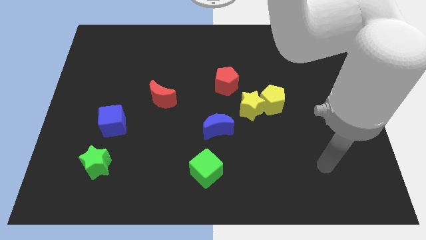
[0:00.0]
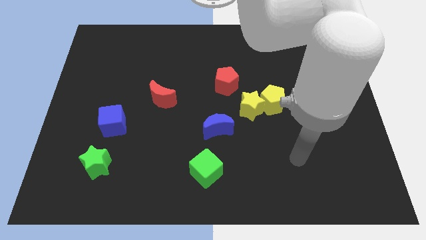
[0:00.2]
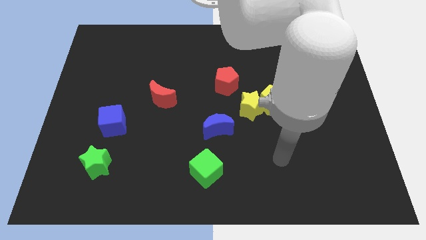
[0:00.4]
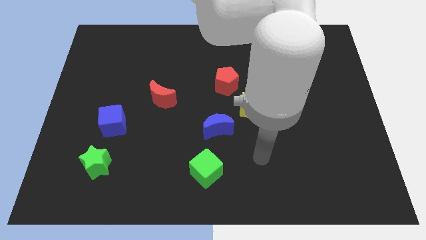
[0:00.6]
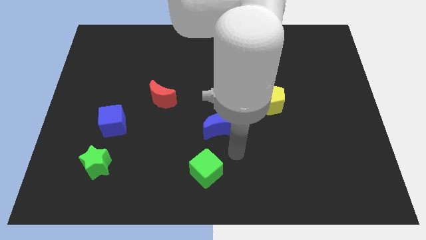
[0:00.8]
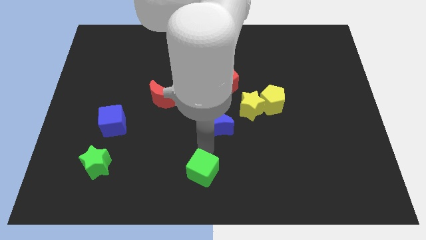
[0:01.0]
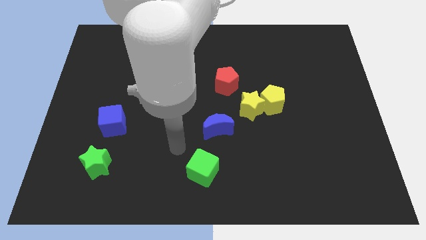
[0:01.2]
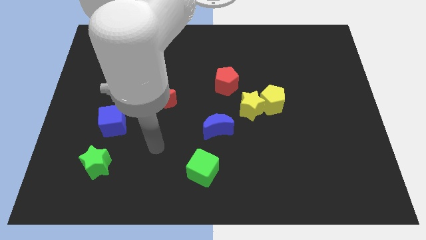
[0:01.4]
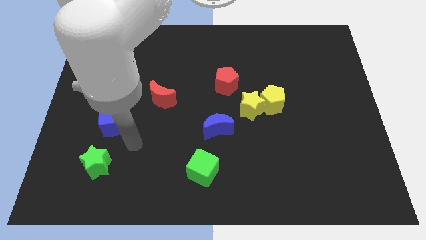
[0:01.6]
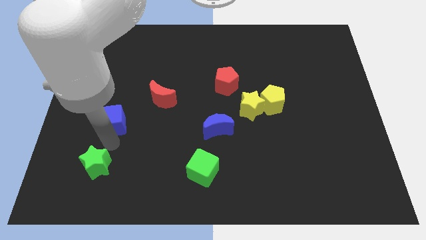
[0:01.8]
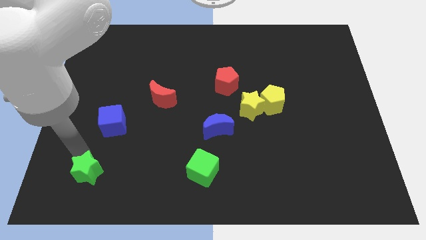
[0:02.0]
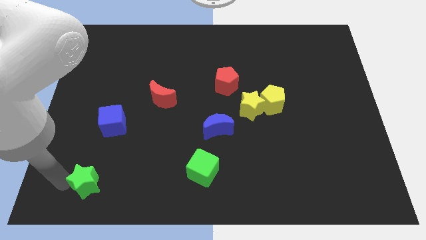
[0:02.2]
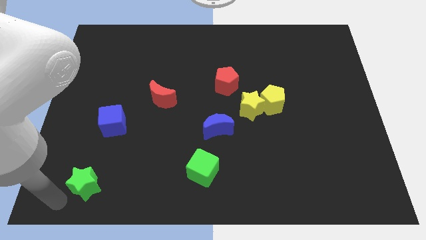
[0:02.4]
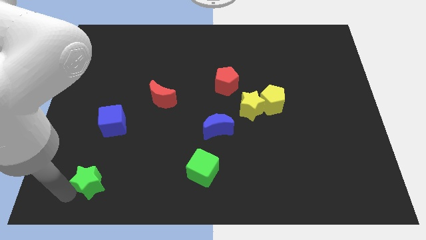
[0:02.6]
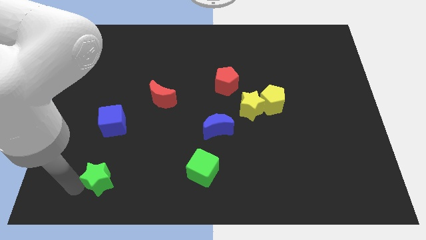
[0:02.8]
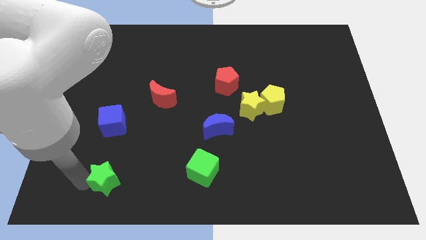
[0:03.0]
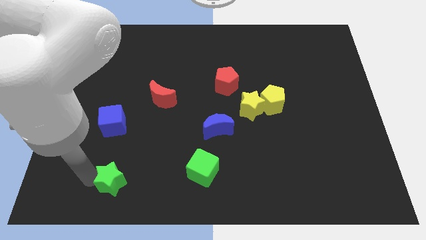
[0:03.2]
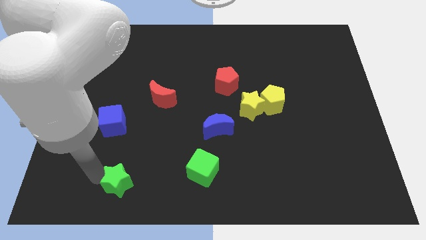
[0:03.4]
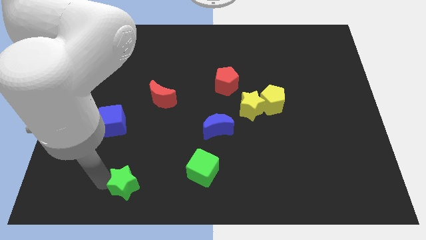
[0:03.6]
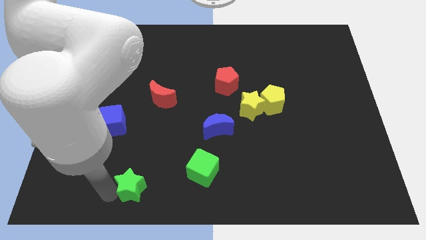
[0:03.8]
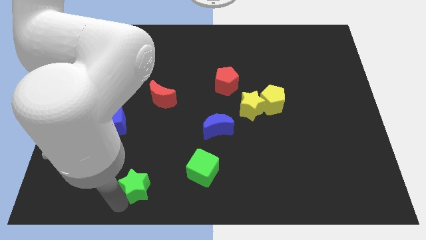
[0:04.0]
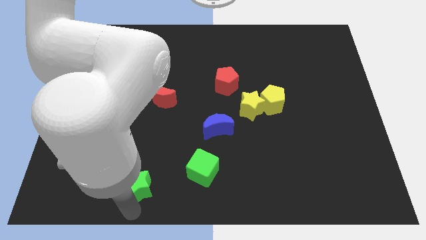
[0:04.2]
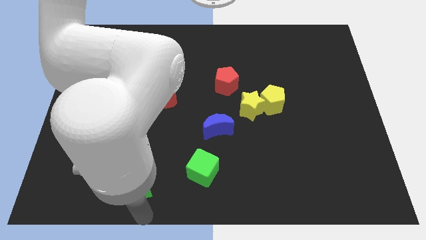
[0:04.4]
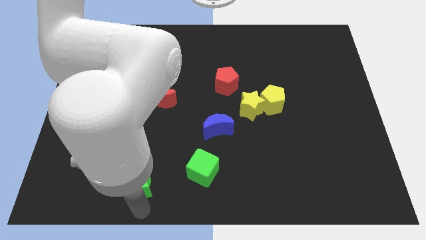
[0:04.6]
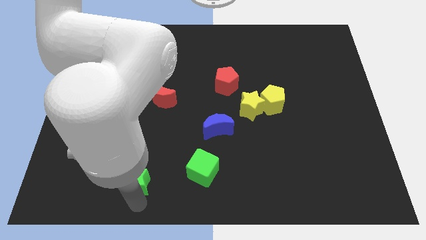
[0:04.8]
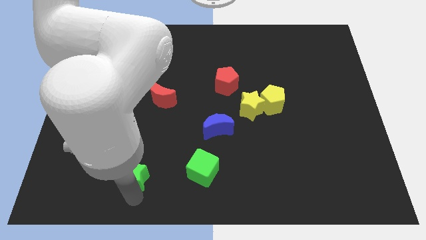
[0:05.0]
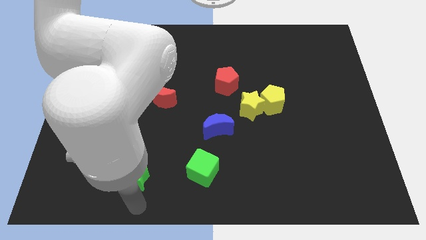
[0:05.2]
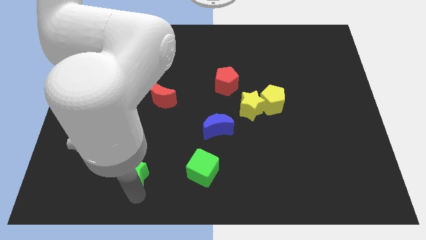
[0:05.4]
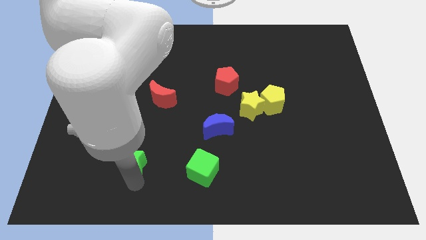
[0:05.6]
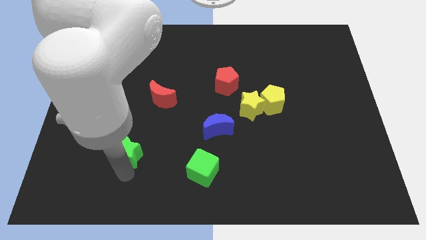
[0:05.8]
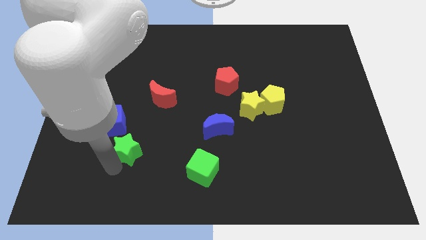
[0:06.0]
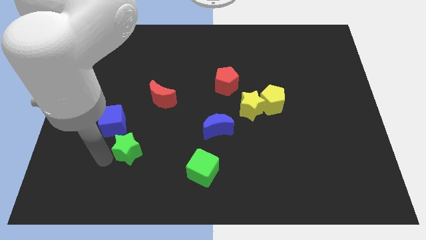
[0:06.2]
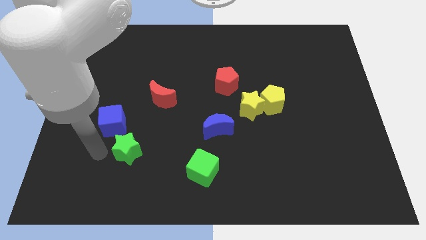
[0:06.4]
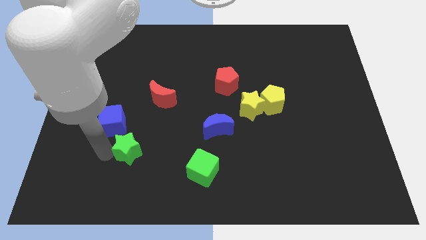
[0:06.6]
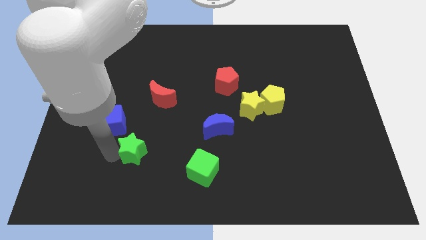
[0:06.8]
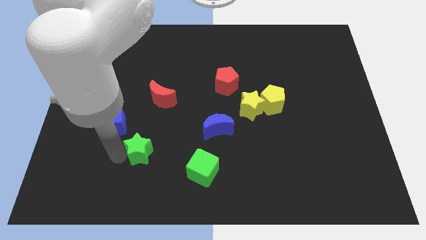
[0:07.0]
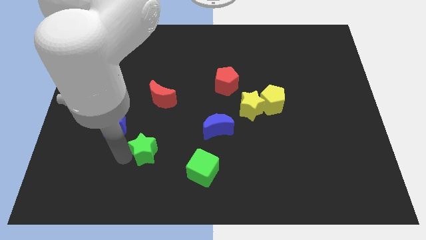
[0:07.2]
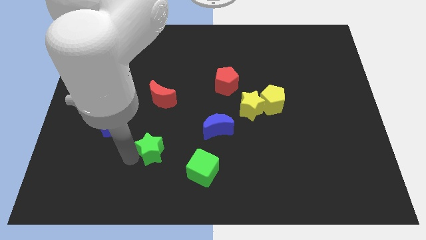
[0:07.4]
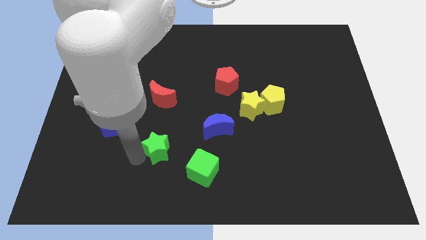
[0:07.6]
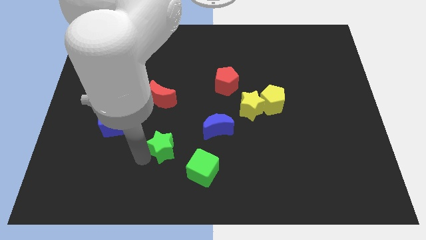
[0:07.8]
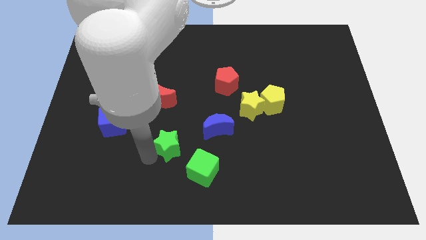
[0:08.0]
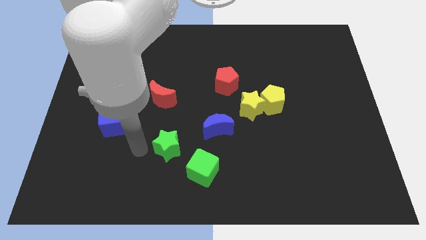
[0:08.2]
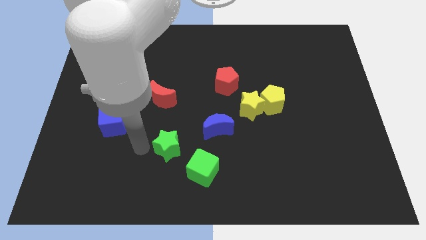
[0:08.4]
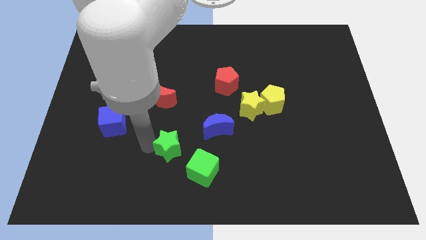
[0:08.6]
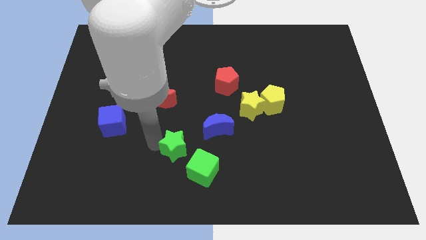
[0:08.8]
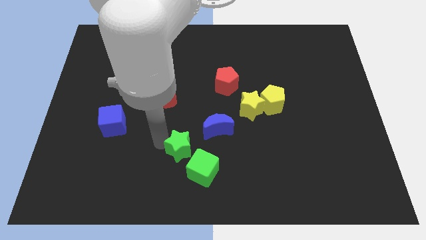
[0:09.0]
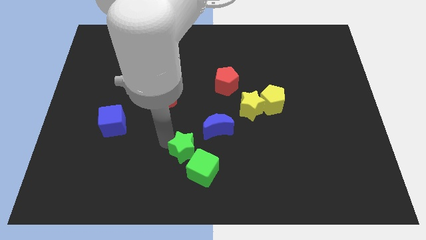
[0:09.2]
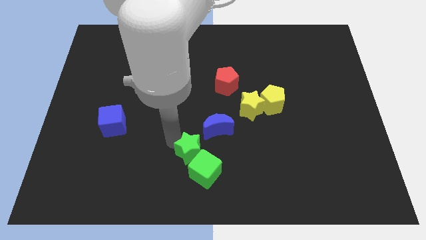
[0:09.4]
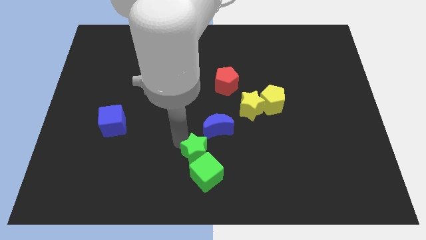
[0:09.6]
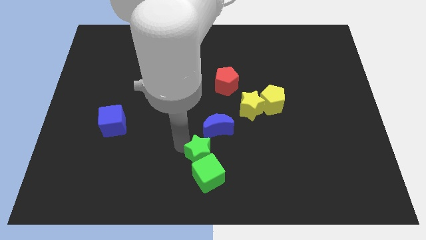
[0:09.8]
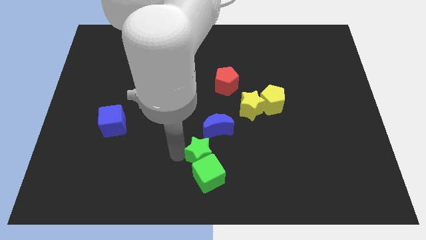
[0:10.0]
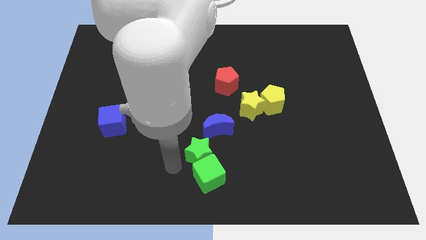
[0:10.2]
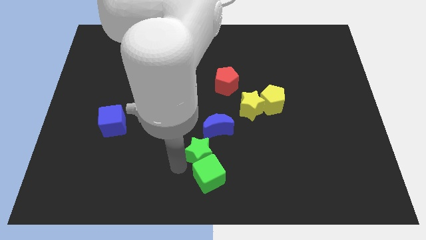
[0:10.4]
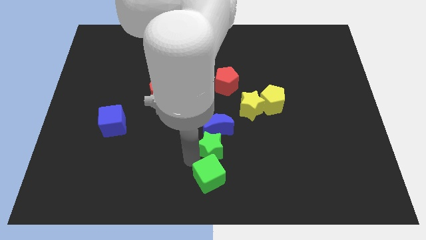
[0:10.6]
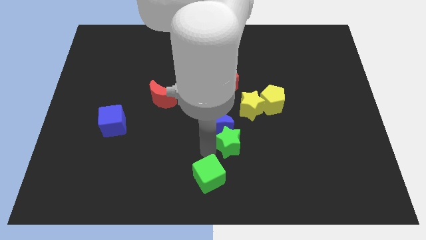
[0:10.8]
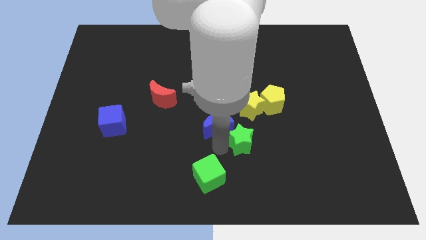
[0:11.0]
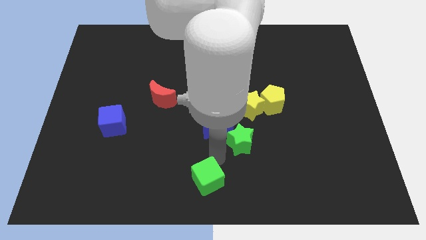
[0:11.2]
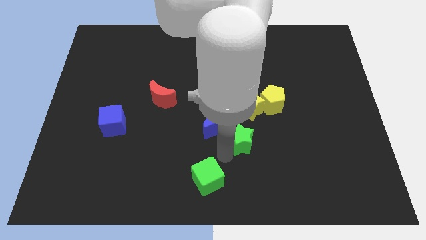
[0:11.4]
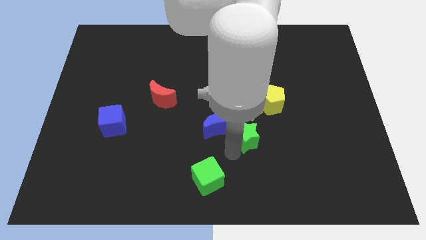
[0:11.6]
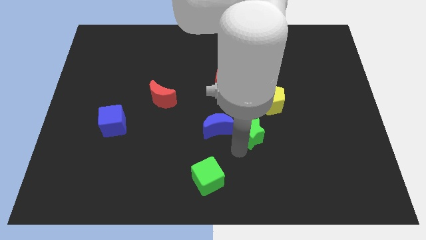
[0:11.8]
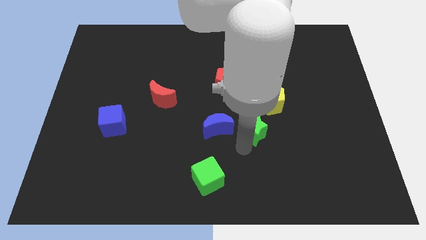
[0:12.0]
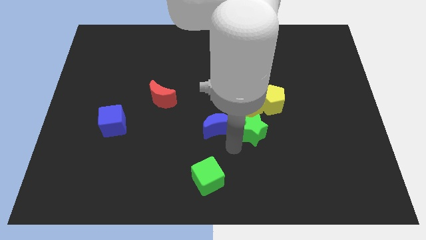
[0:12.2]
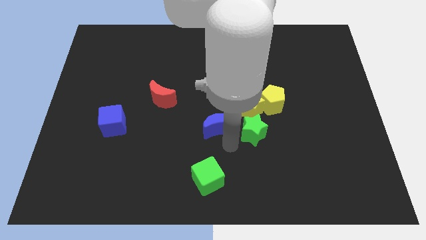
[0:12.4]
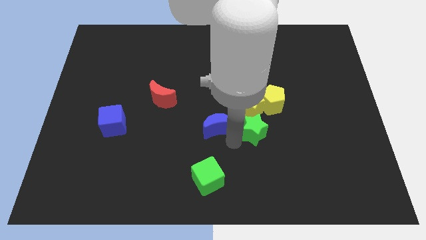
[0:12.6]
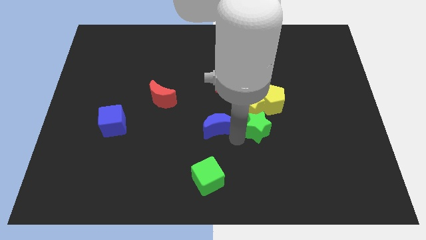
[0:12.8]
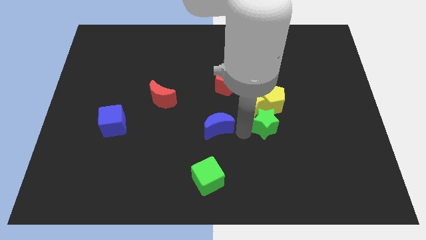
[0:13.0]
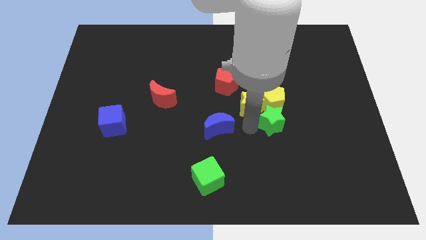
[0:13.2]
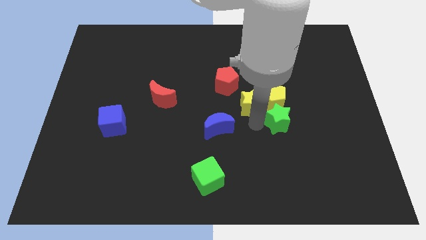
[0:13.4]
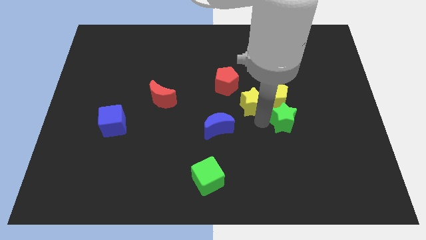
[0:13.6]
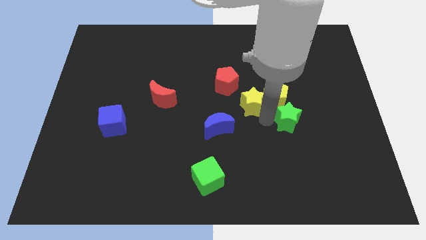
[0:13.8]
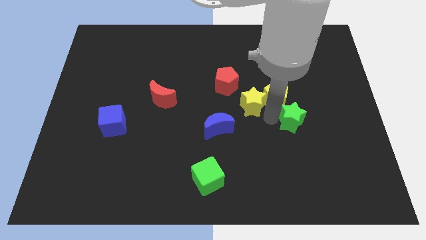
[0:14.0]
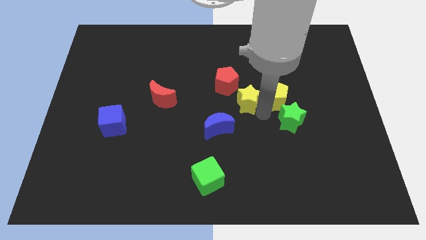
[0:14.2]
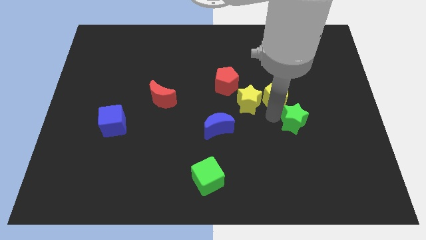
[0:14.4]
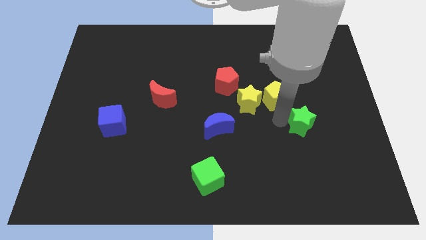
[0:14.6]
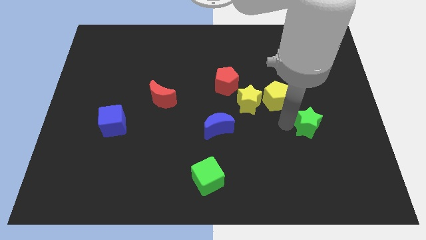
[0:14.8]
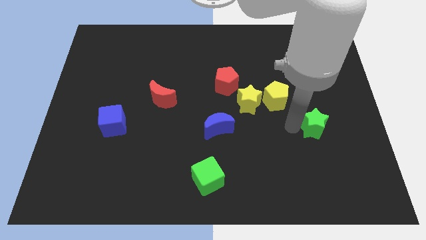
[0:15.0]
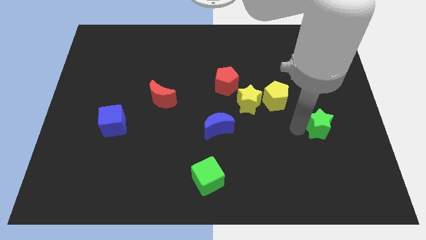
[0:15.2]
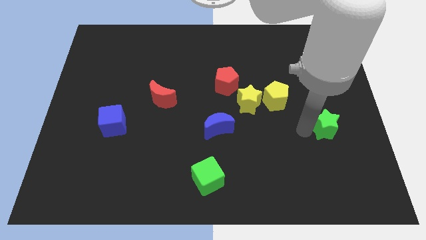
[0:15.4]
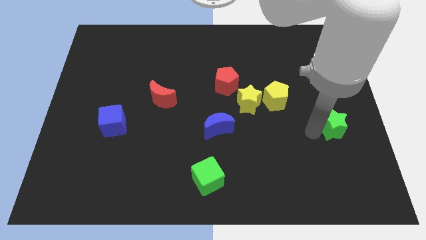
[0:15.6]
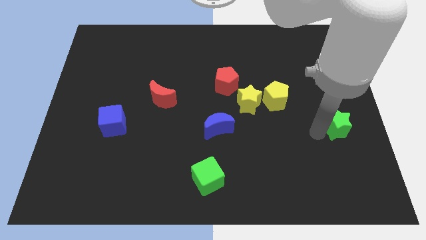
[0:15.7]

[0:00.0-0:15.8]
move the green star to the center right
